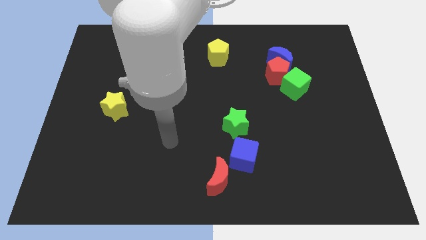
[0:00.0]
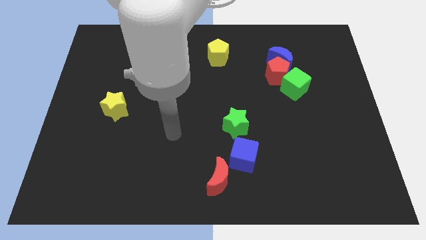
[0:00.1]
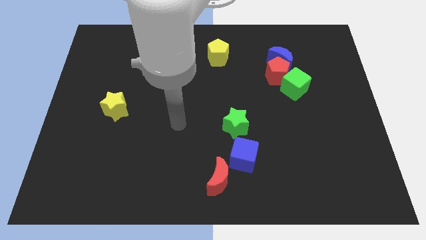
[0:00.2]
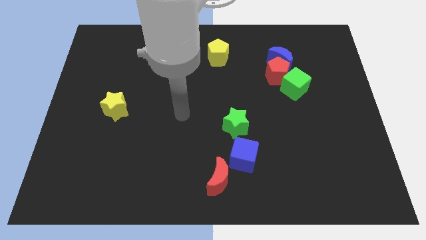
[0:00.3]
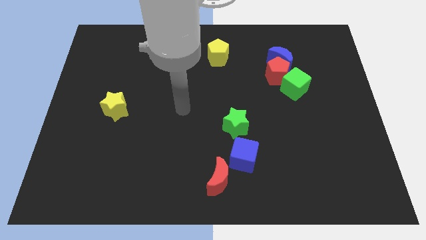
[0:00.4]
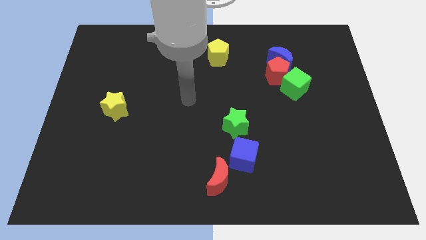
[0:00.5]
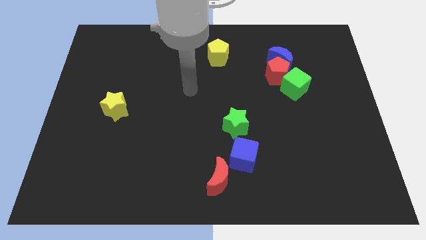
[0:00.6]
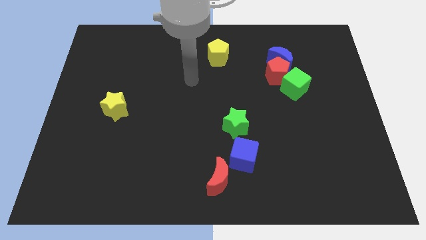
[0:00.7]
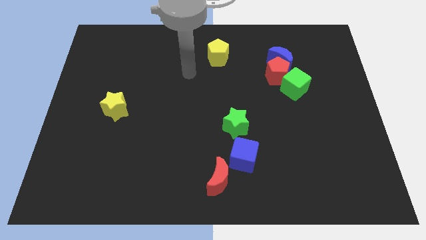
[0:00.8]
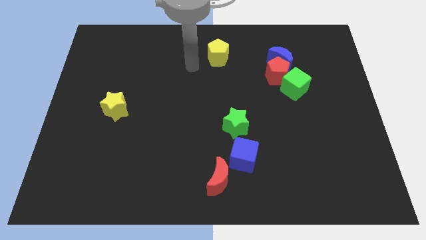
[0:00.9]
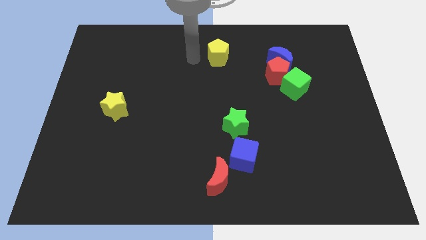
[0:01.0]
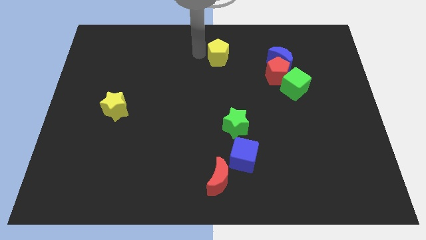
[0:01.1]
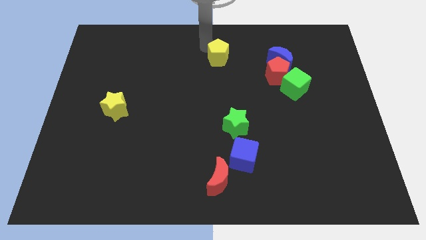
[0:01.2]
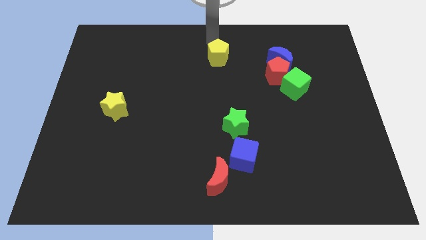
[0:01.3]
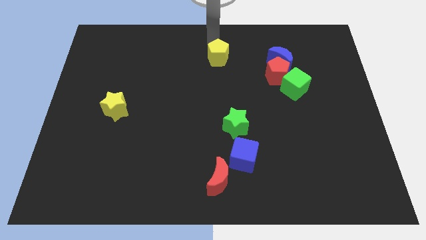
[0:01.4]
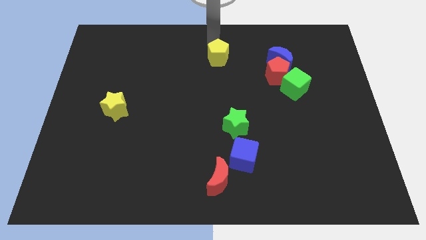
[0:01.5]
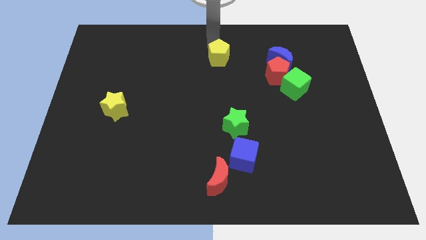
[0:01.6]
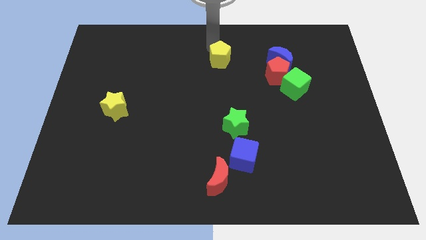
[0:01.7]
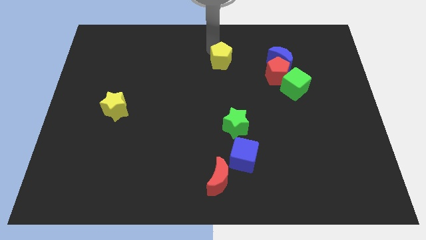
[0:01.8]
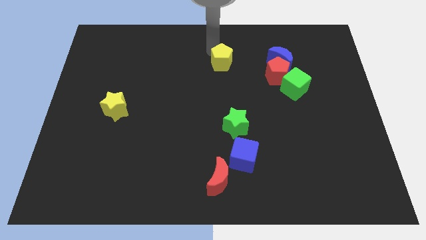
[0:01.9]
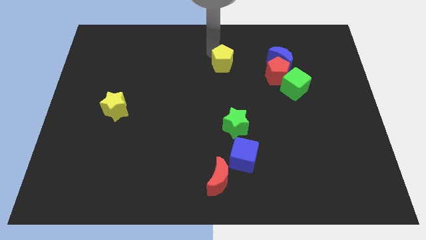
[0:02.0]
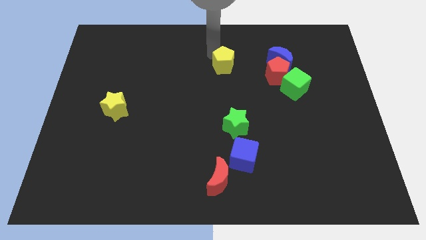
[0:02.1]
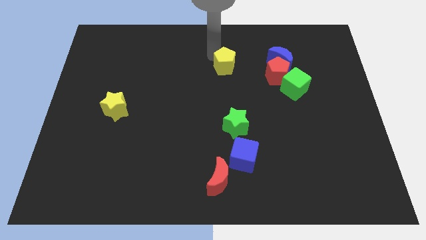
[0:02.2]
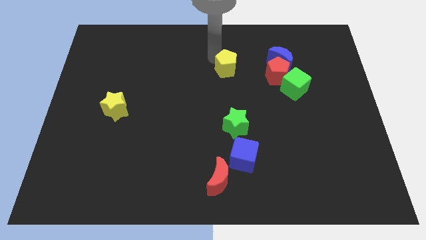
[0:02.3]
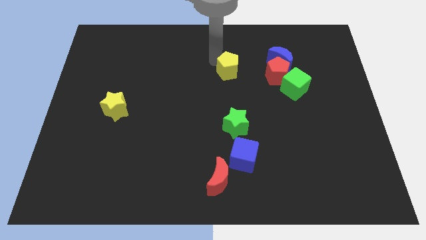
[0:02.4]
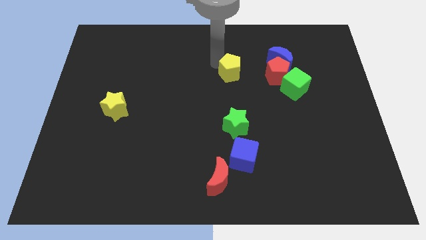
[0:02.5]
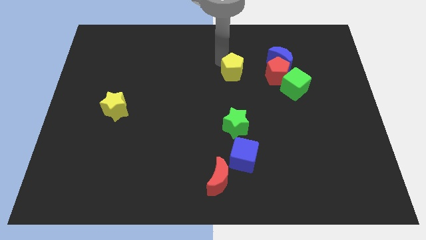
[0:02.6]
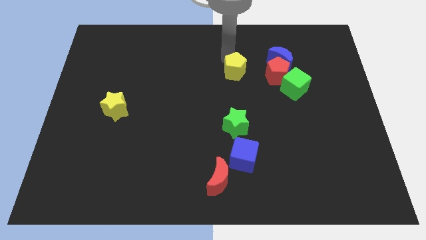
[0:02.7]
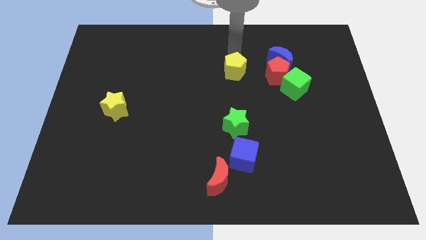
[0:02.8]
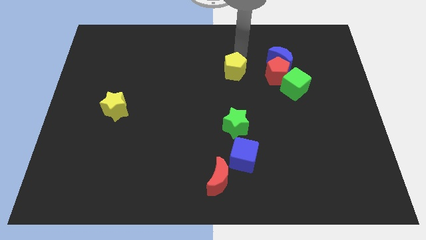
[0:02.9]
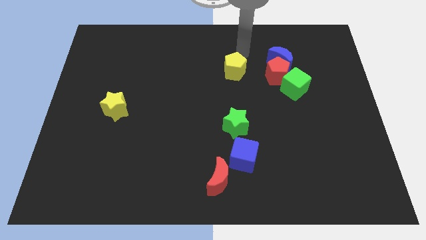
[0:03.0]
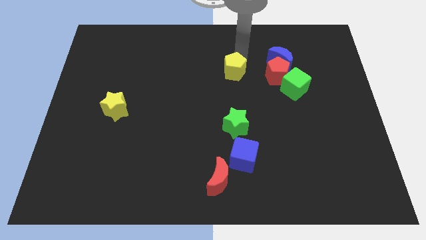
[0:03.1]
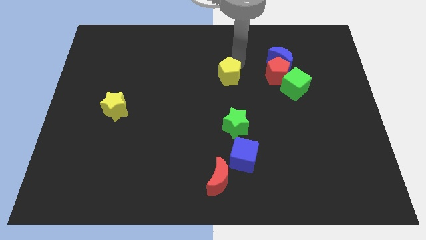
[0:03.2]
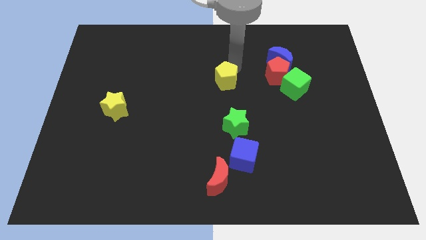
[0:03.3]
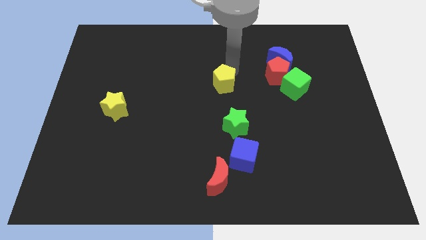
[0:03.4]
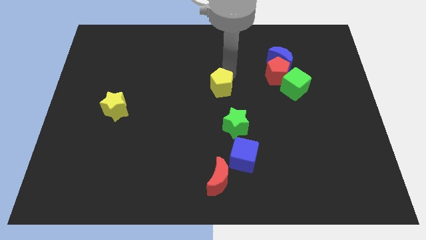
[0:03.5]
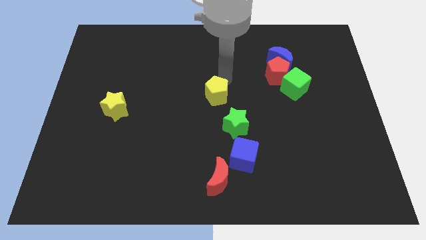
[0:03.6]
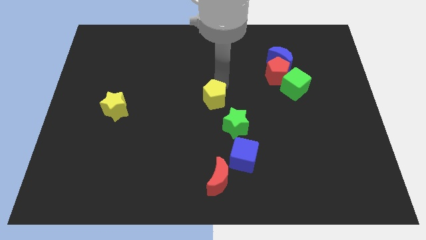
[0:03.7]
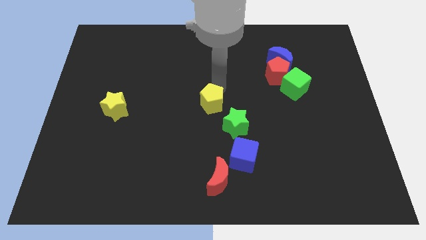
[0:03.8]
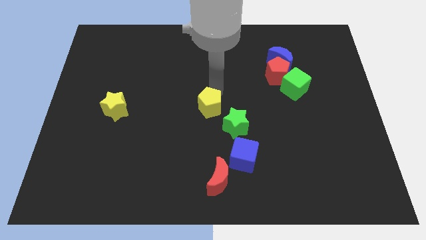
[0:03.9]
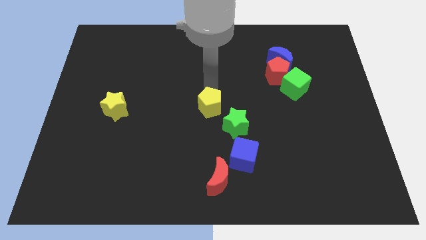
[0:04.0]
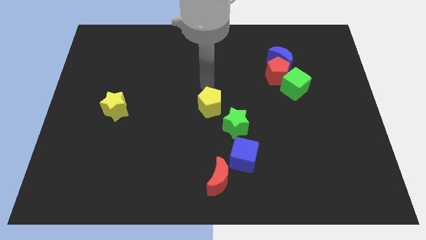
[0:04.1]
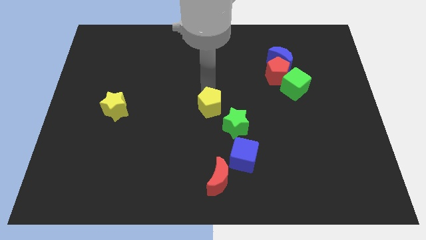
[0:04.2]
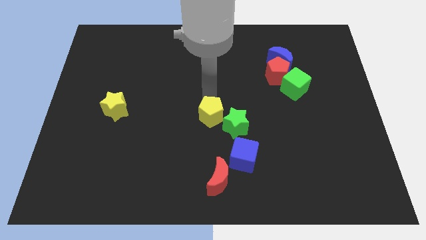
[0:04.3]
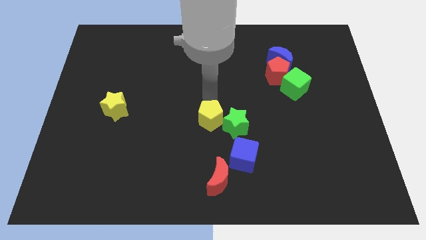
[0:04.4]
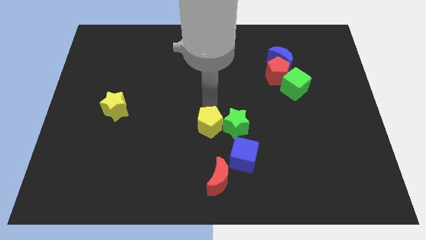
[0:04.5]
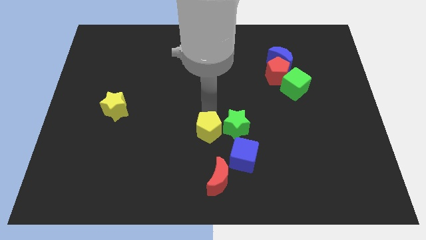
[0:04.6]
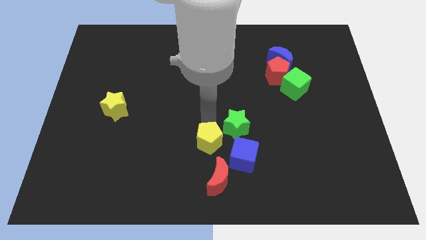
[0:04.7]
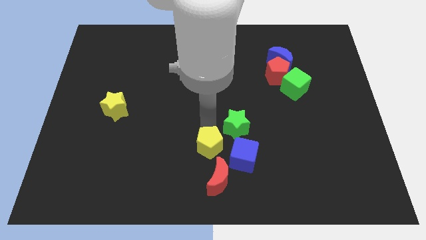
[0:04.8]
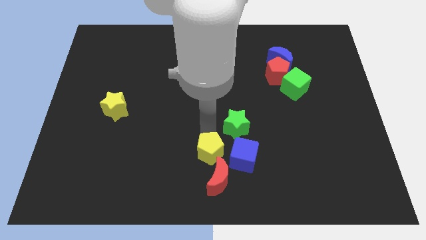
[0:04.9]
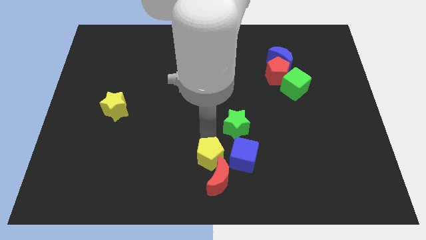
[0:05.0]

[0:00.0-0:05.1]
move the yellow pentagon towards the red moon

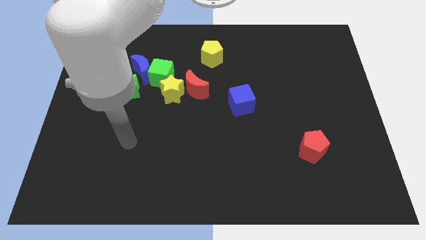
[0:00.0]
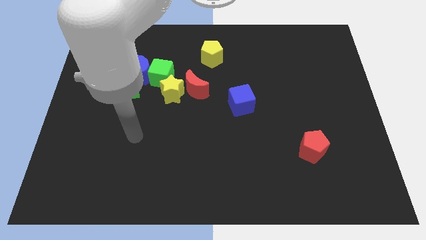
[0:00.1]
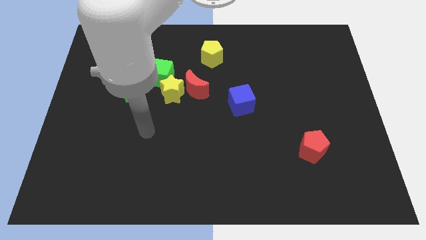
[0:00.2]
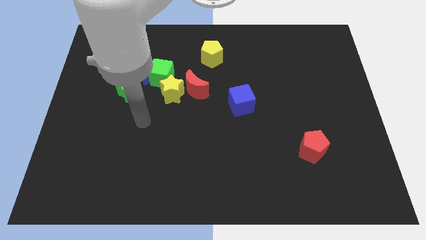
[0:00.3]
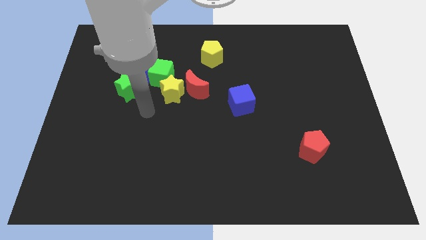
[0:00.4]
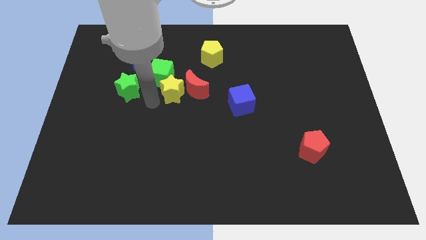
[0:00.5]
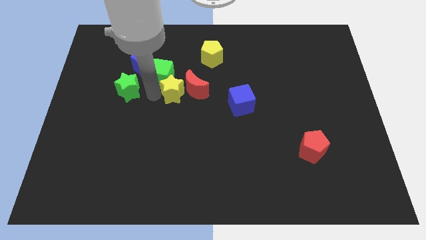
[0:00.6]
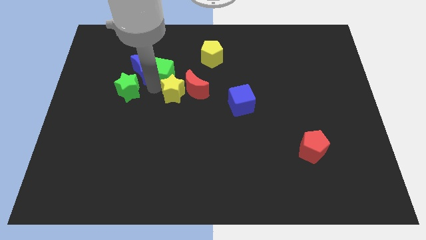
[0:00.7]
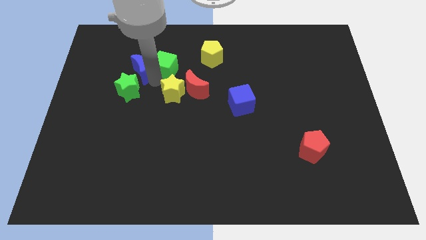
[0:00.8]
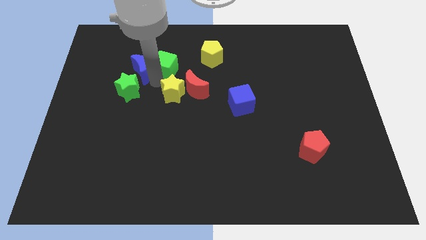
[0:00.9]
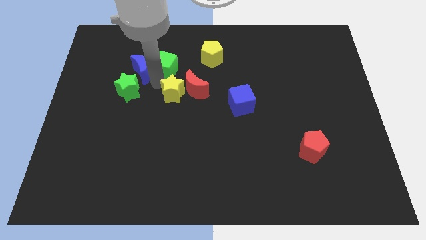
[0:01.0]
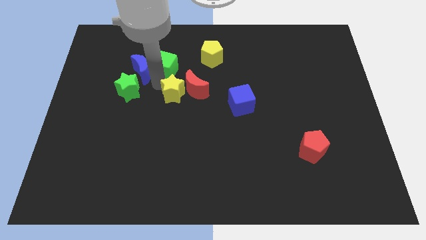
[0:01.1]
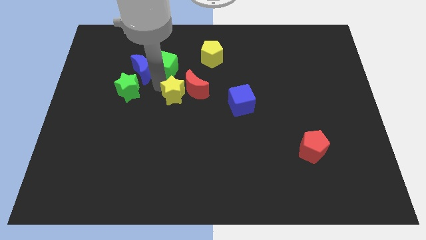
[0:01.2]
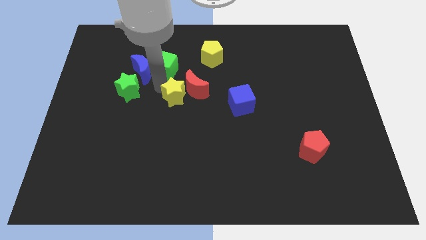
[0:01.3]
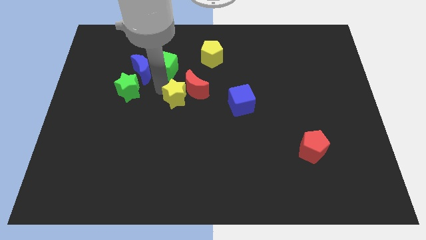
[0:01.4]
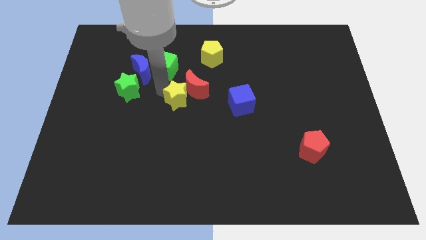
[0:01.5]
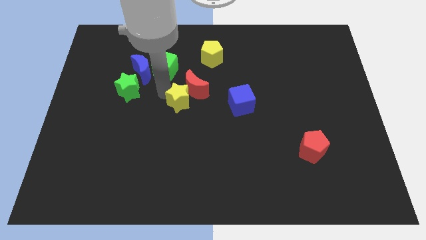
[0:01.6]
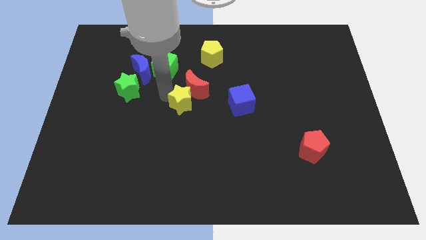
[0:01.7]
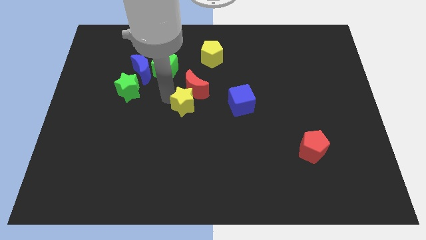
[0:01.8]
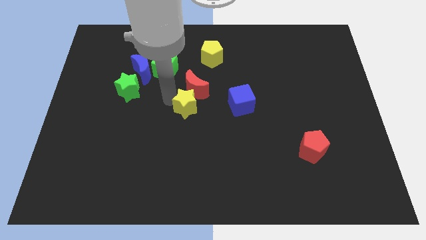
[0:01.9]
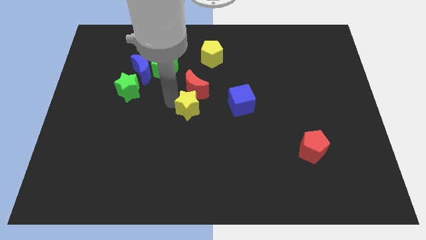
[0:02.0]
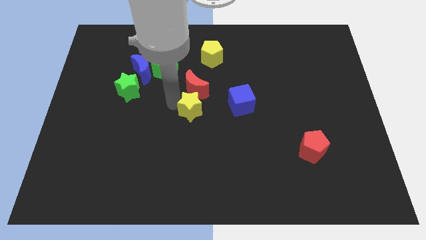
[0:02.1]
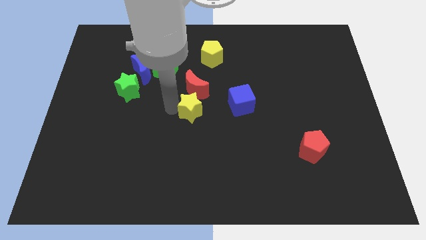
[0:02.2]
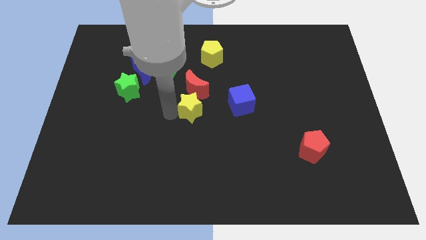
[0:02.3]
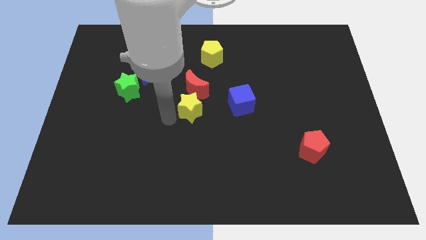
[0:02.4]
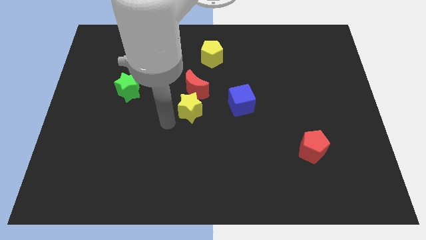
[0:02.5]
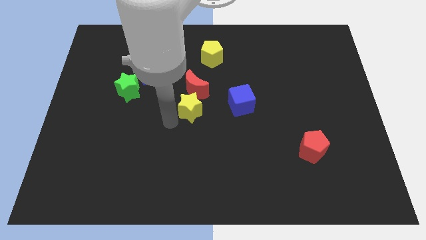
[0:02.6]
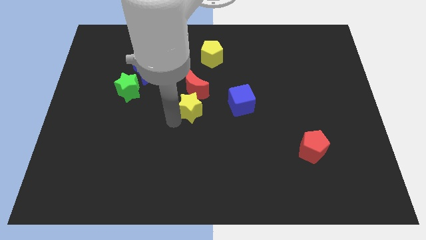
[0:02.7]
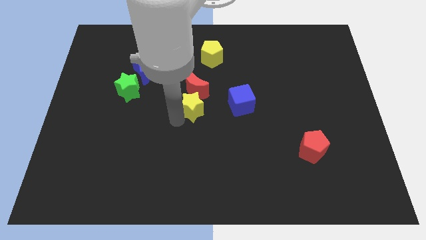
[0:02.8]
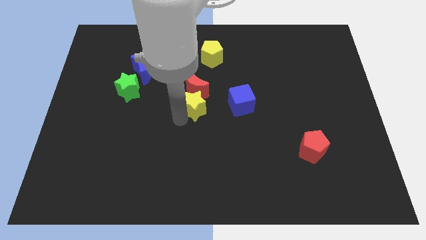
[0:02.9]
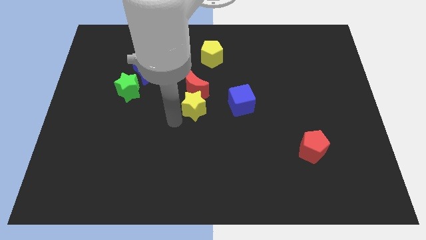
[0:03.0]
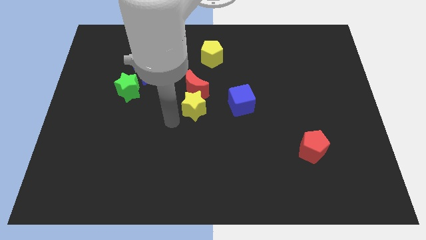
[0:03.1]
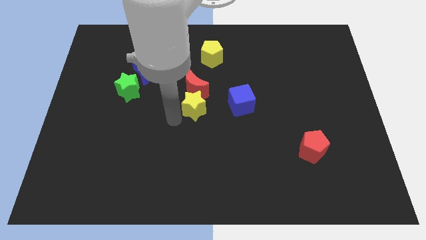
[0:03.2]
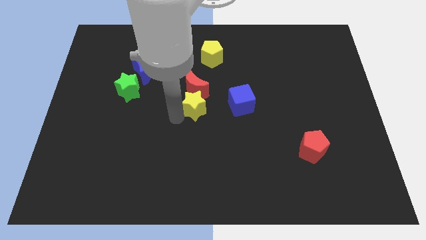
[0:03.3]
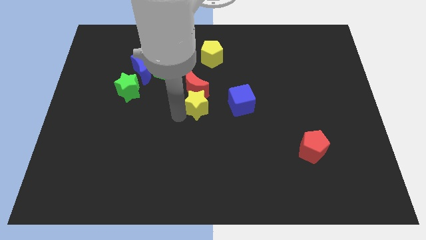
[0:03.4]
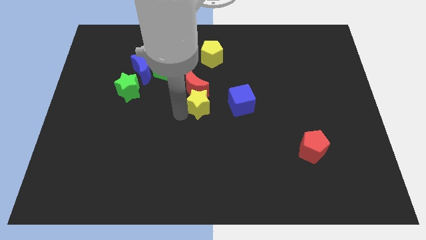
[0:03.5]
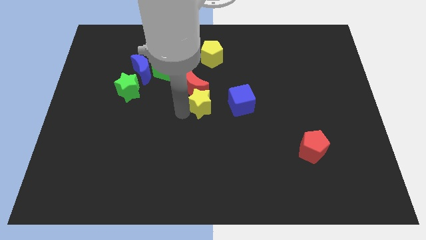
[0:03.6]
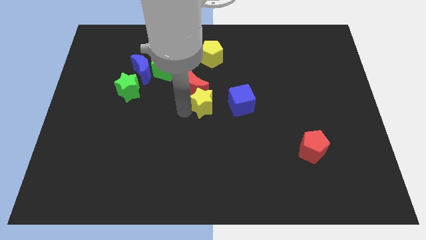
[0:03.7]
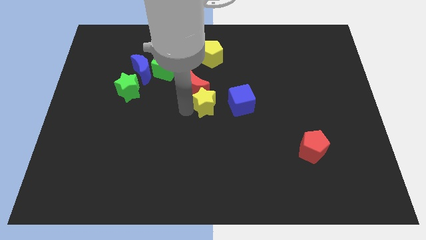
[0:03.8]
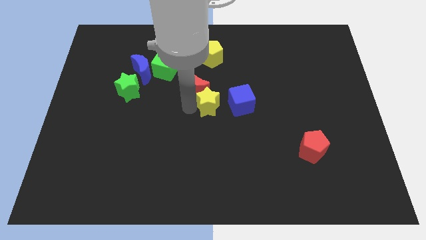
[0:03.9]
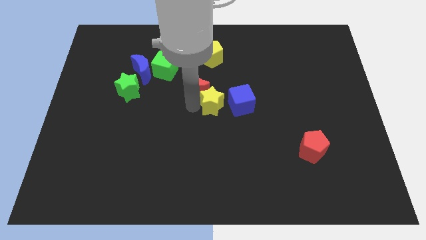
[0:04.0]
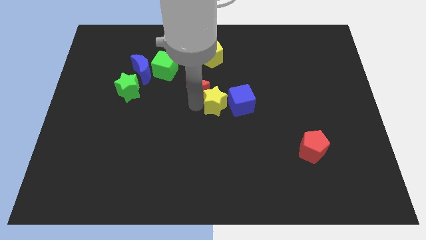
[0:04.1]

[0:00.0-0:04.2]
put the yellow star to the blue cube
